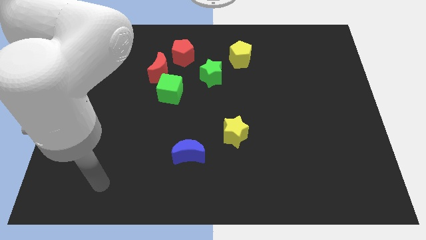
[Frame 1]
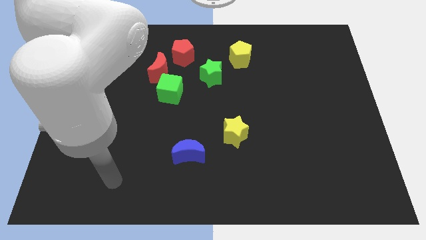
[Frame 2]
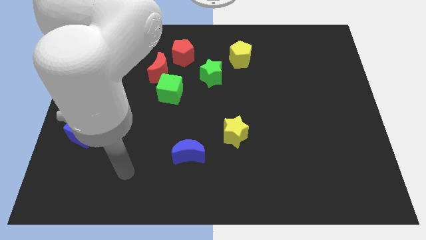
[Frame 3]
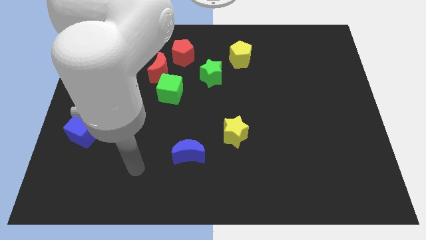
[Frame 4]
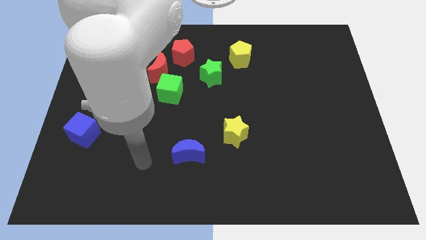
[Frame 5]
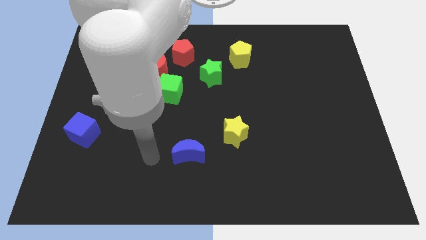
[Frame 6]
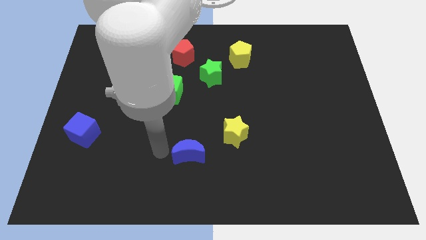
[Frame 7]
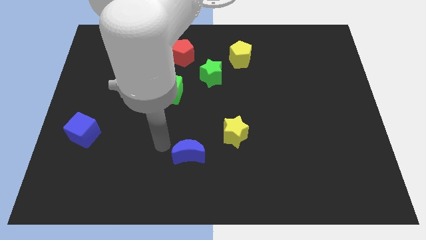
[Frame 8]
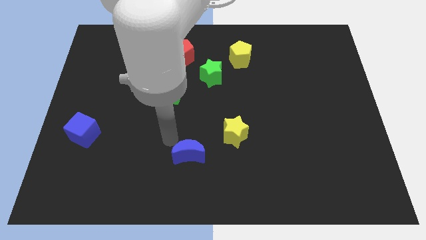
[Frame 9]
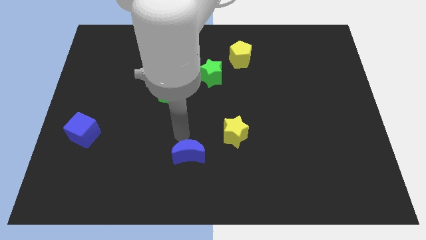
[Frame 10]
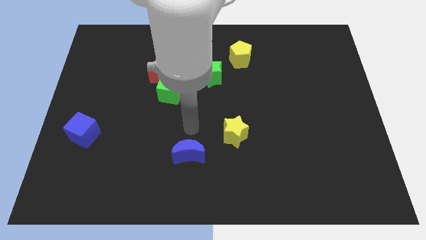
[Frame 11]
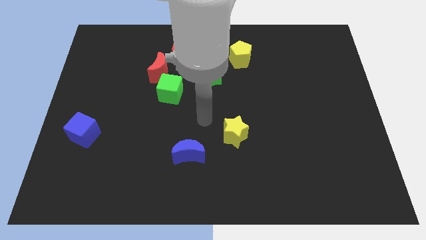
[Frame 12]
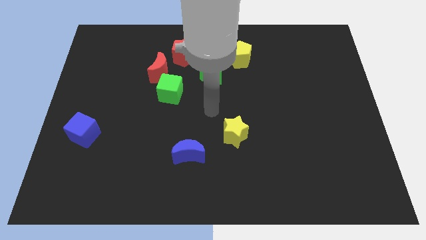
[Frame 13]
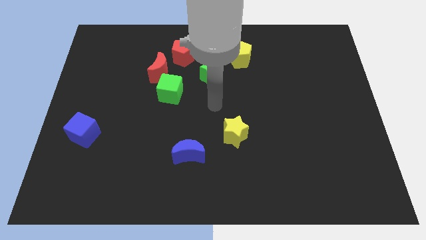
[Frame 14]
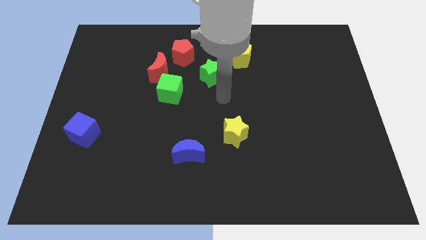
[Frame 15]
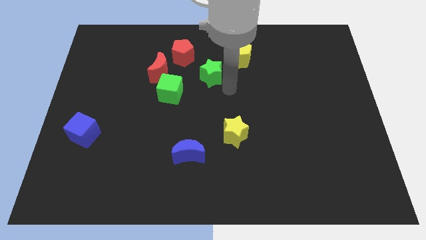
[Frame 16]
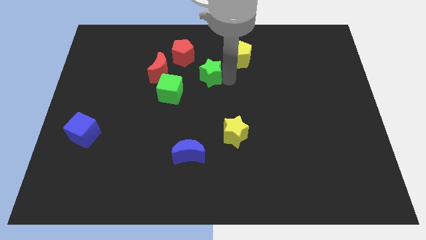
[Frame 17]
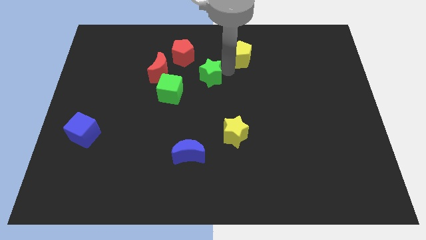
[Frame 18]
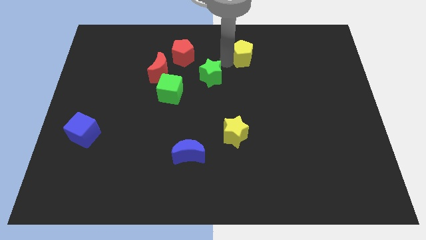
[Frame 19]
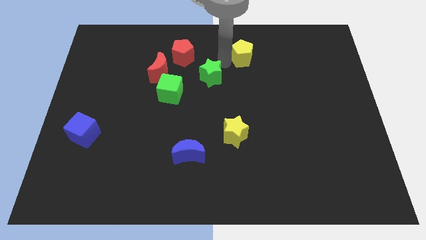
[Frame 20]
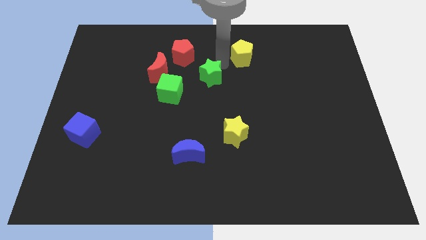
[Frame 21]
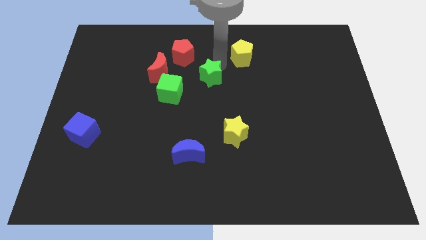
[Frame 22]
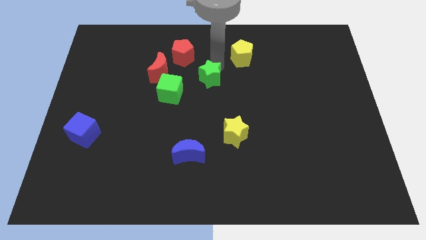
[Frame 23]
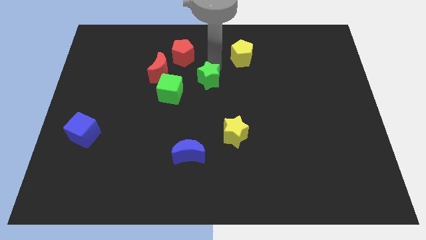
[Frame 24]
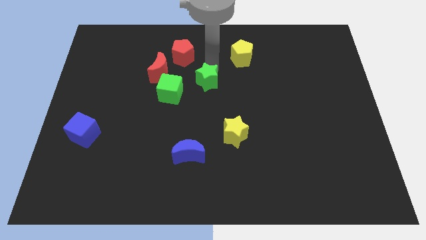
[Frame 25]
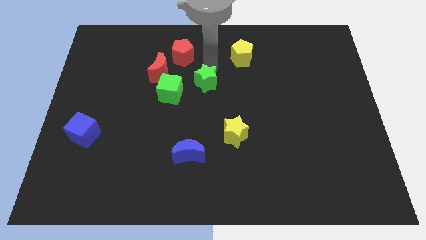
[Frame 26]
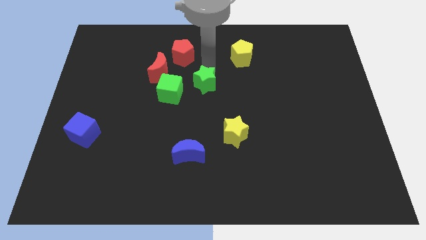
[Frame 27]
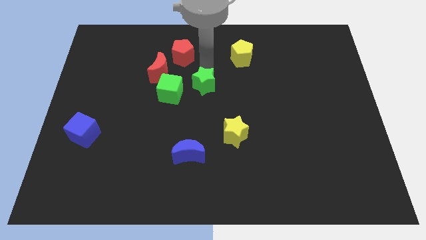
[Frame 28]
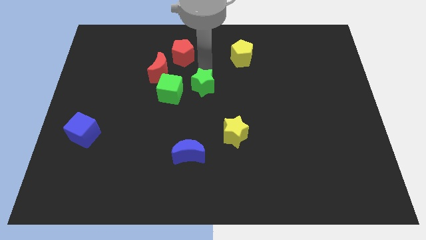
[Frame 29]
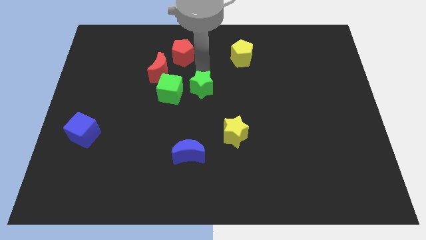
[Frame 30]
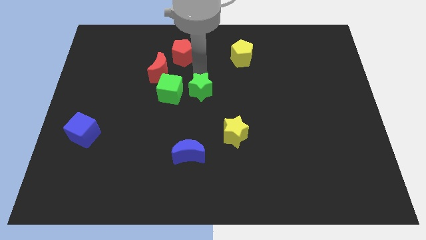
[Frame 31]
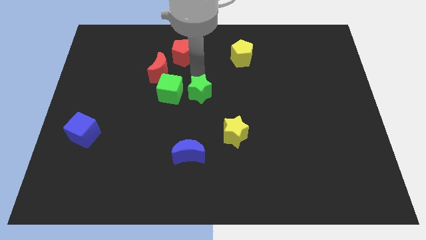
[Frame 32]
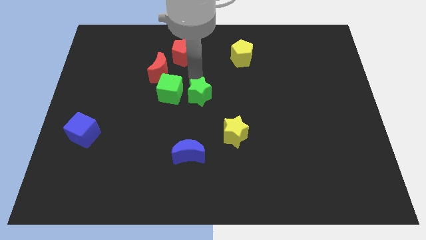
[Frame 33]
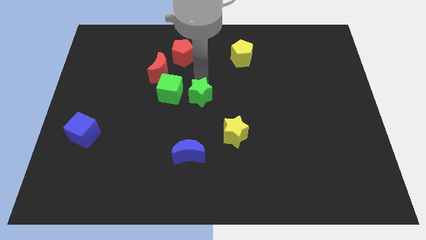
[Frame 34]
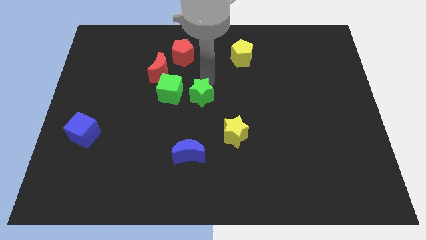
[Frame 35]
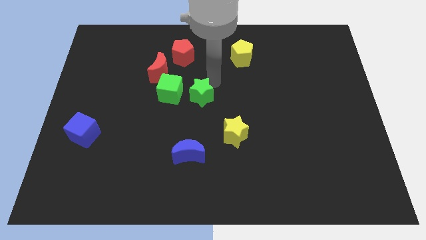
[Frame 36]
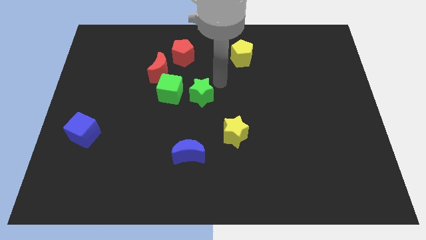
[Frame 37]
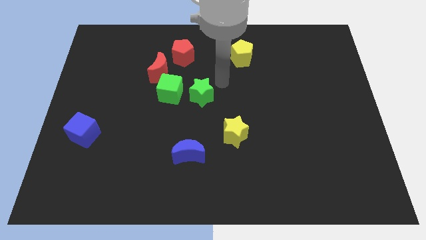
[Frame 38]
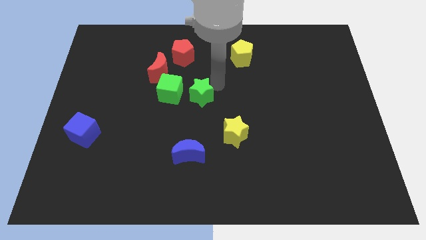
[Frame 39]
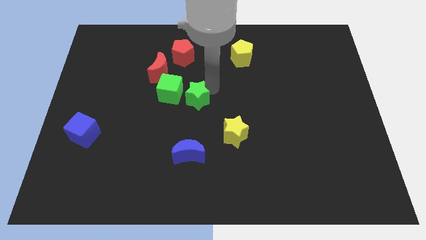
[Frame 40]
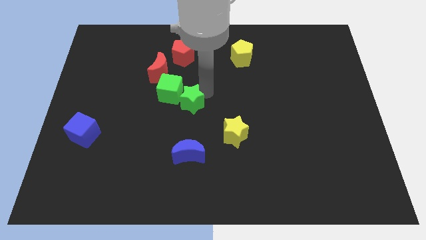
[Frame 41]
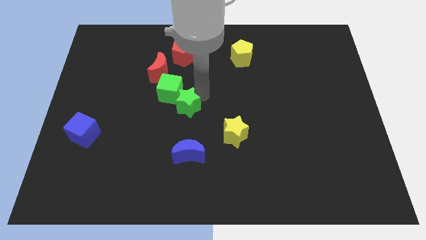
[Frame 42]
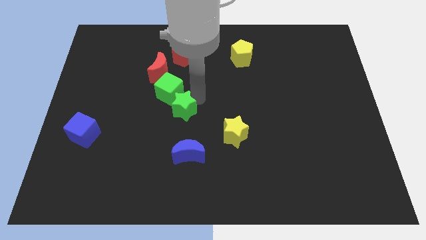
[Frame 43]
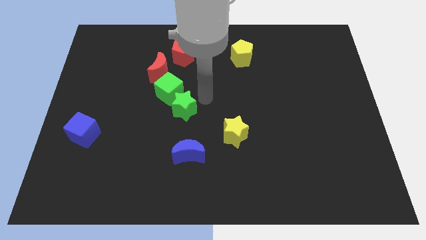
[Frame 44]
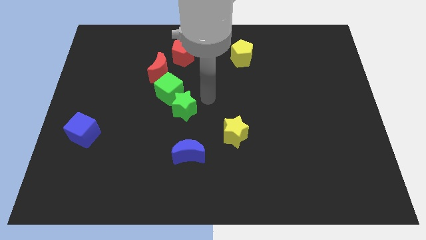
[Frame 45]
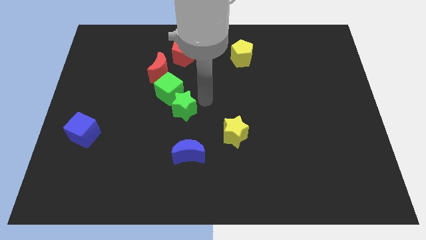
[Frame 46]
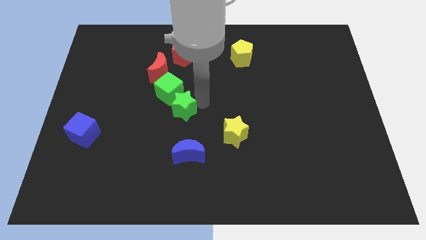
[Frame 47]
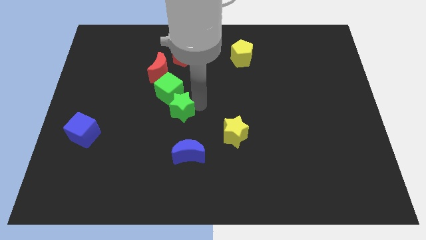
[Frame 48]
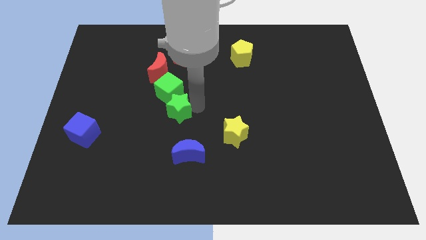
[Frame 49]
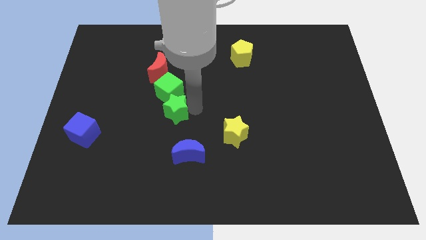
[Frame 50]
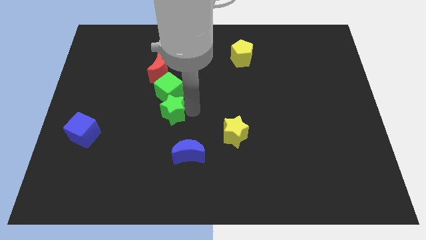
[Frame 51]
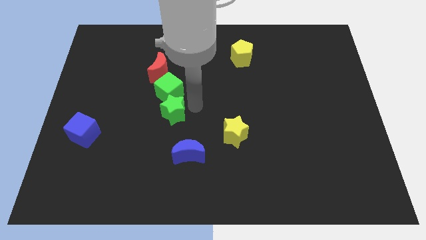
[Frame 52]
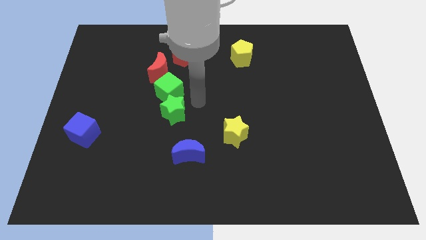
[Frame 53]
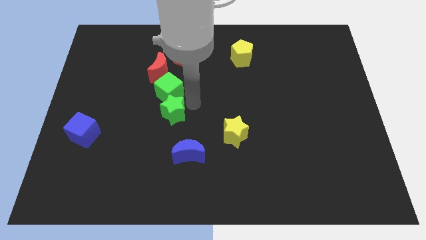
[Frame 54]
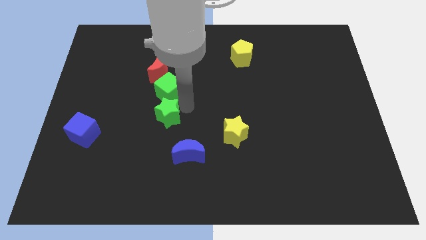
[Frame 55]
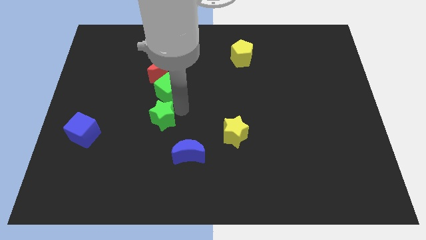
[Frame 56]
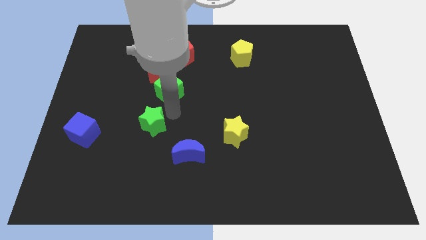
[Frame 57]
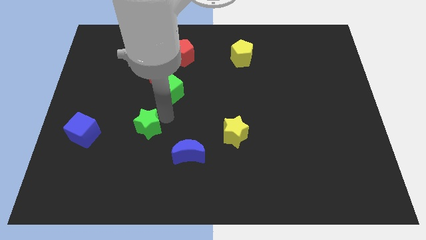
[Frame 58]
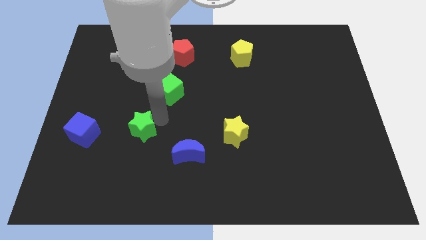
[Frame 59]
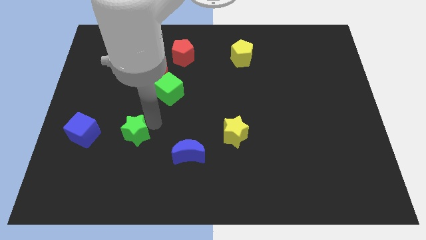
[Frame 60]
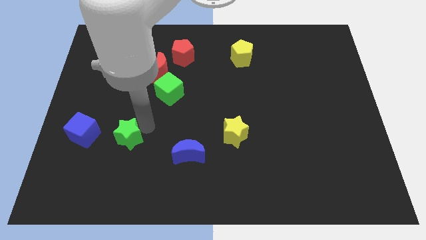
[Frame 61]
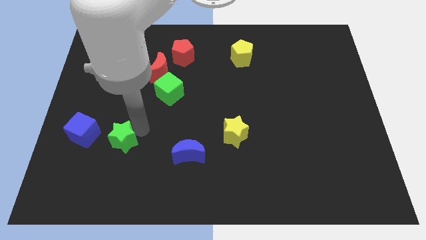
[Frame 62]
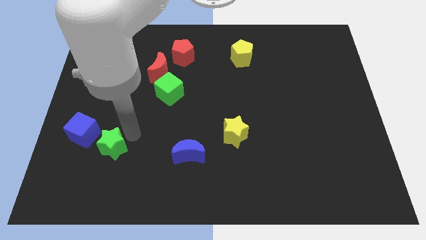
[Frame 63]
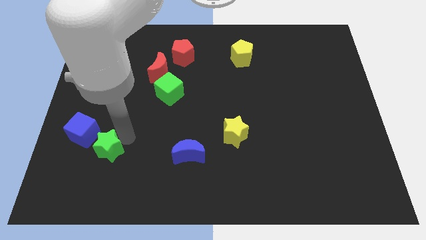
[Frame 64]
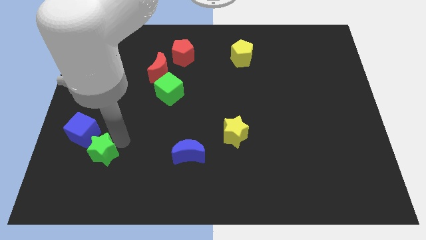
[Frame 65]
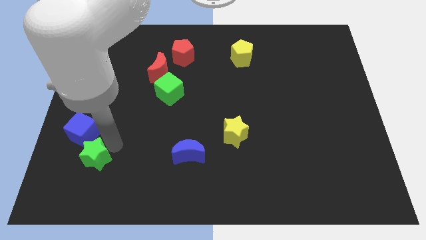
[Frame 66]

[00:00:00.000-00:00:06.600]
put the green star to the bottom side of the blue cube

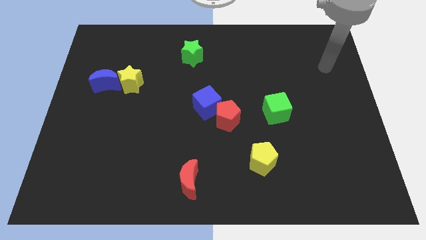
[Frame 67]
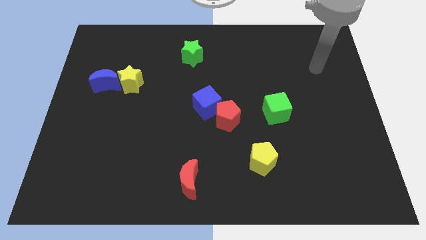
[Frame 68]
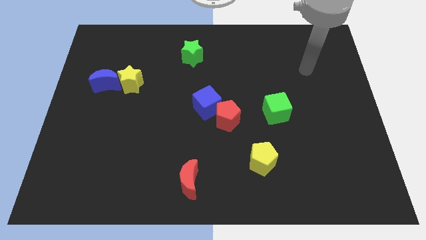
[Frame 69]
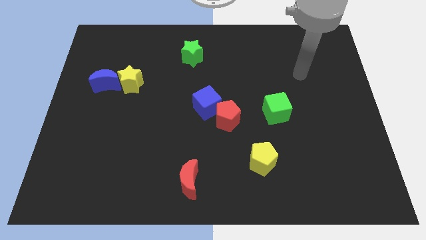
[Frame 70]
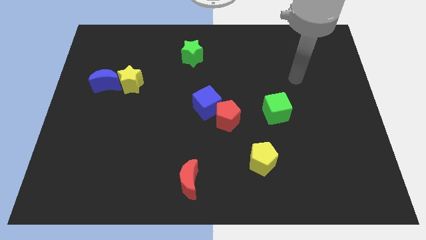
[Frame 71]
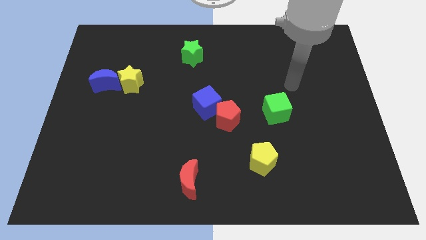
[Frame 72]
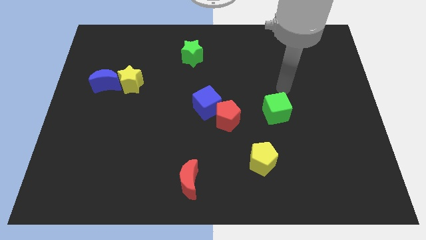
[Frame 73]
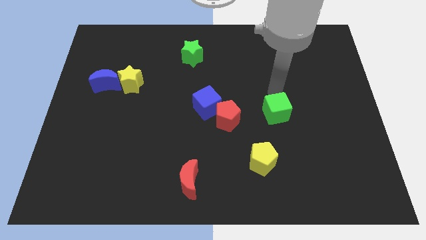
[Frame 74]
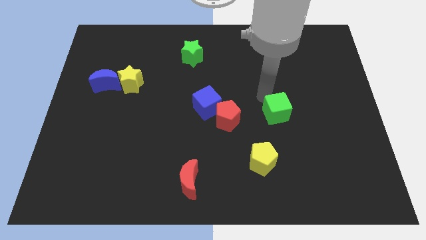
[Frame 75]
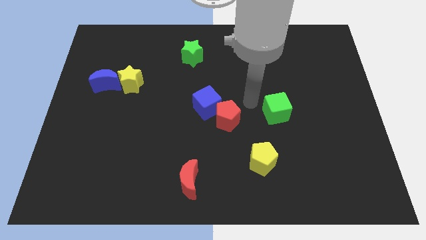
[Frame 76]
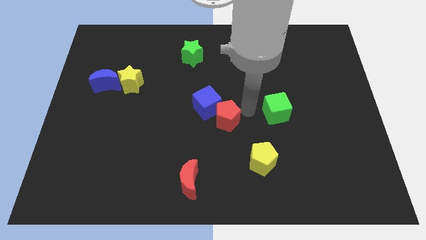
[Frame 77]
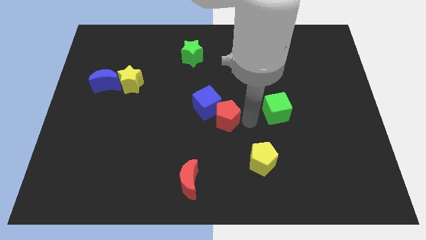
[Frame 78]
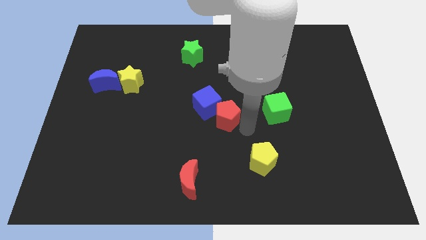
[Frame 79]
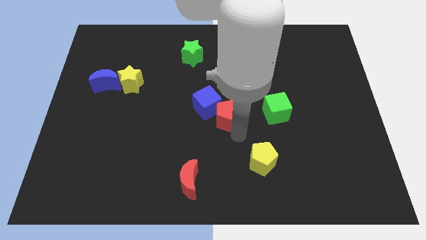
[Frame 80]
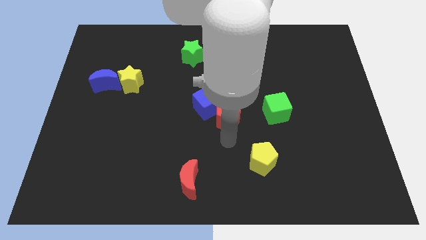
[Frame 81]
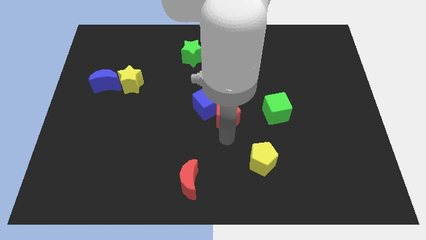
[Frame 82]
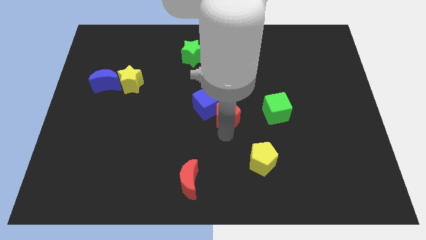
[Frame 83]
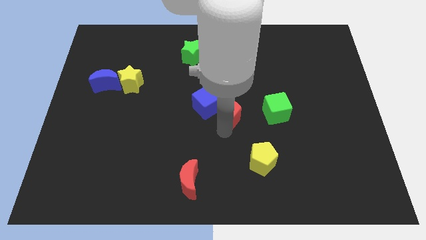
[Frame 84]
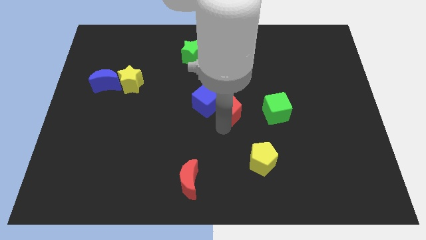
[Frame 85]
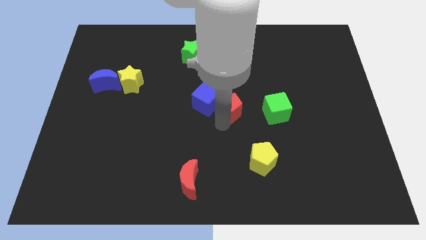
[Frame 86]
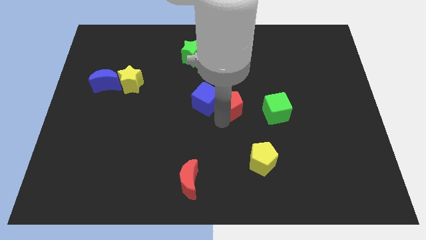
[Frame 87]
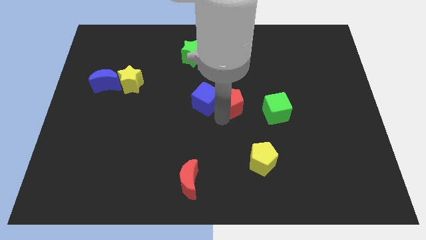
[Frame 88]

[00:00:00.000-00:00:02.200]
move the red pentagon to the top right of the blue cube
